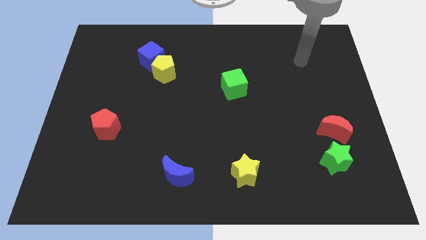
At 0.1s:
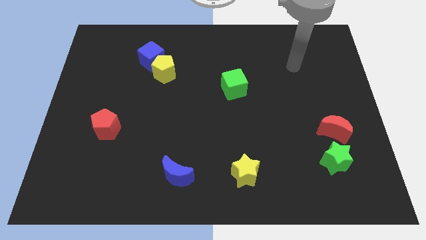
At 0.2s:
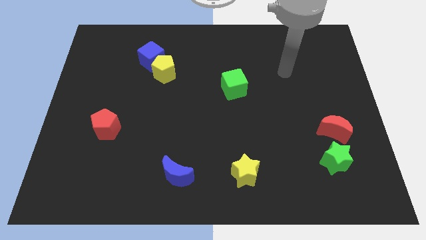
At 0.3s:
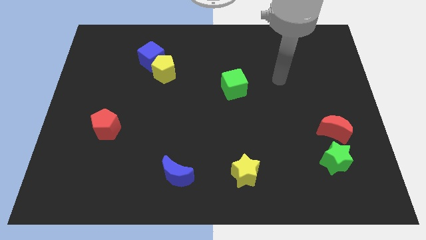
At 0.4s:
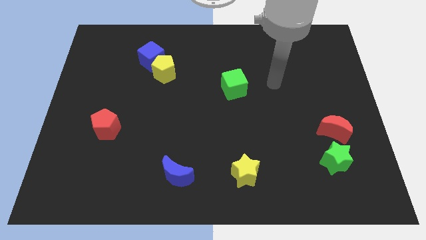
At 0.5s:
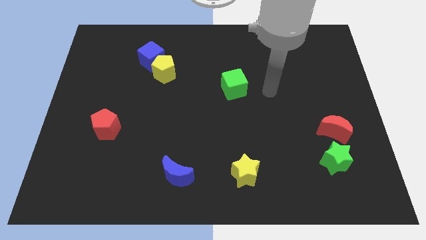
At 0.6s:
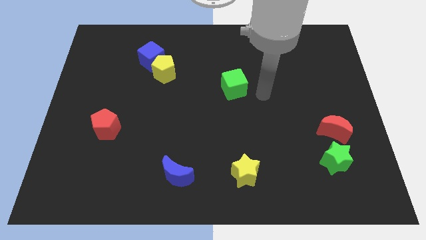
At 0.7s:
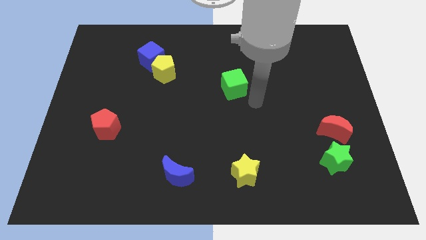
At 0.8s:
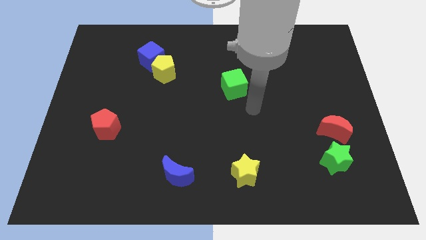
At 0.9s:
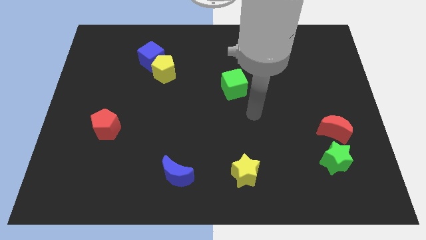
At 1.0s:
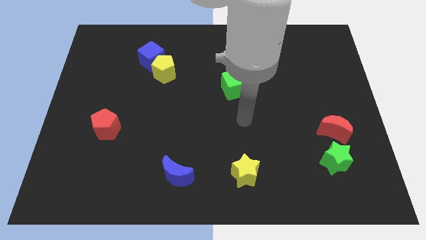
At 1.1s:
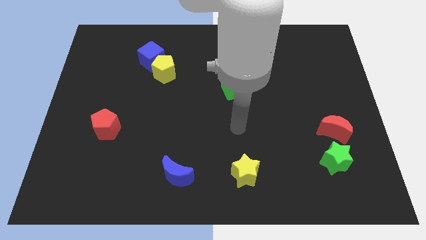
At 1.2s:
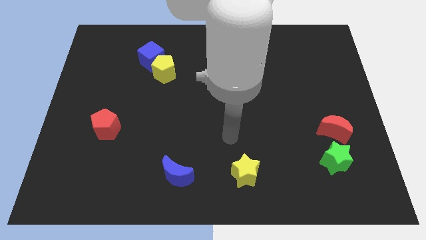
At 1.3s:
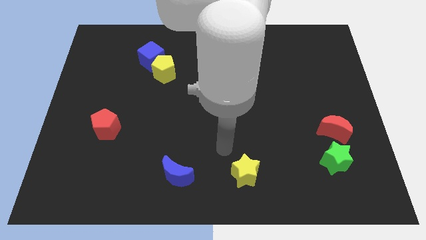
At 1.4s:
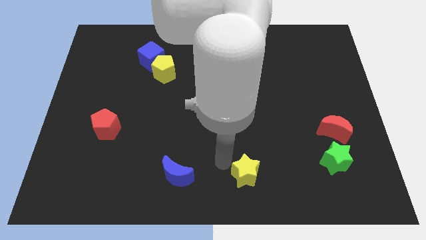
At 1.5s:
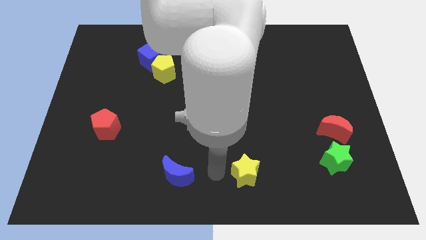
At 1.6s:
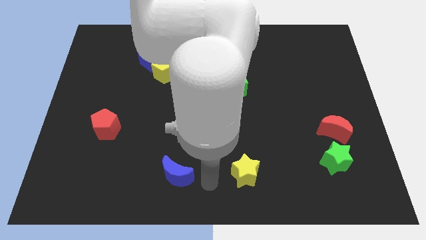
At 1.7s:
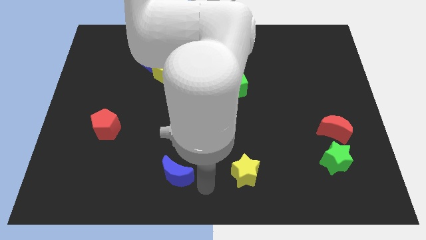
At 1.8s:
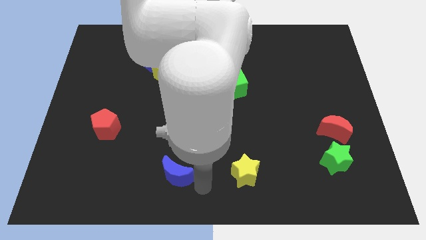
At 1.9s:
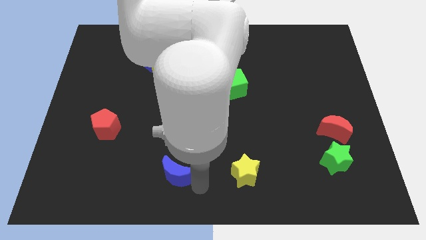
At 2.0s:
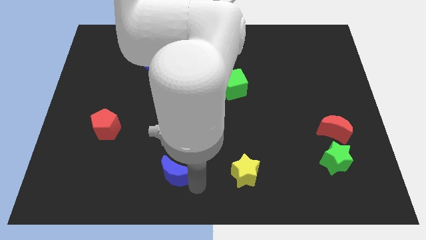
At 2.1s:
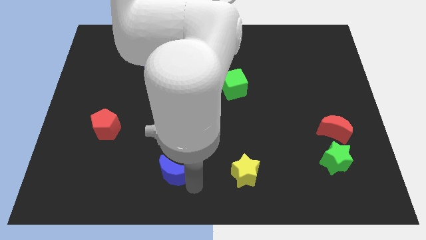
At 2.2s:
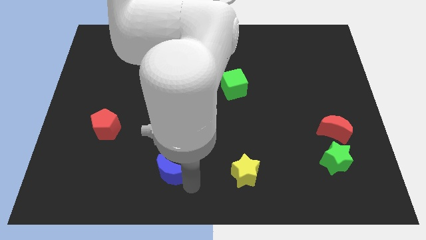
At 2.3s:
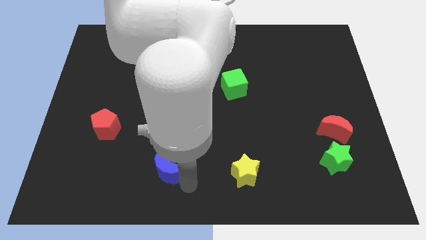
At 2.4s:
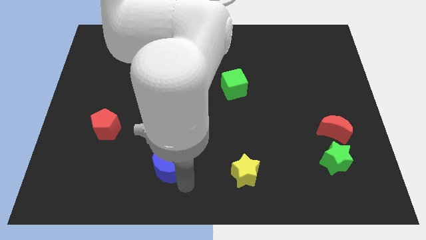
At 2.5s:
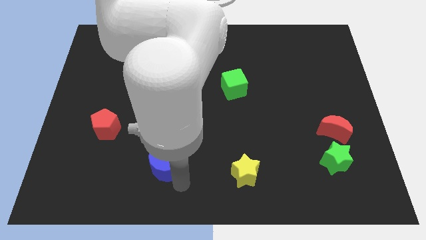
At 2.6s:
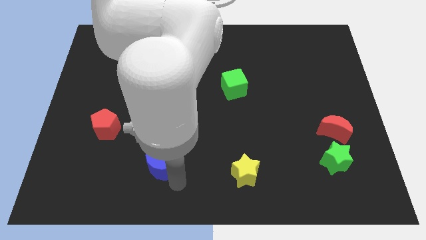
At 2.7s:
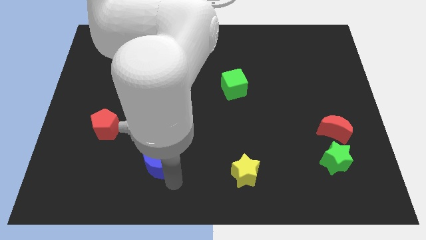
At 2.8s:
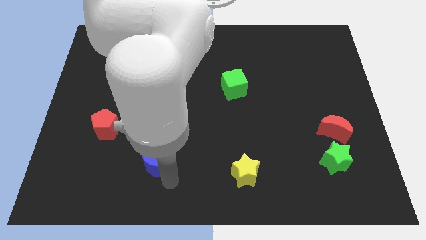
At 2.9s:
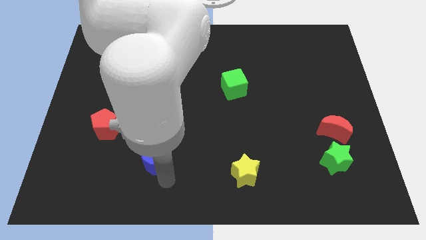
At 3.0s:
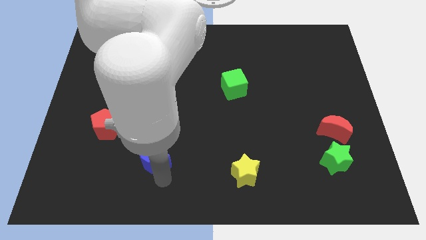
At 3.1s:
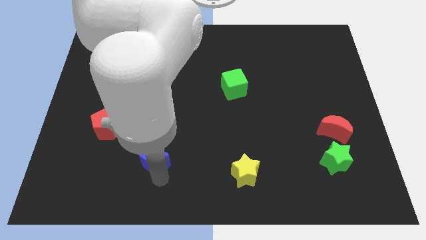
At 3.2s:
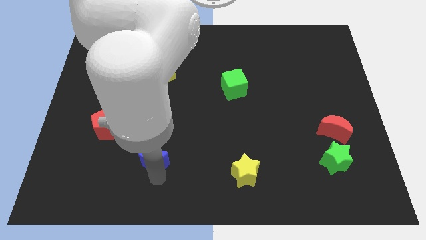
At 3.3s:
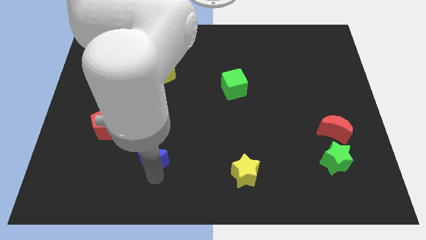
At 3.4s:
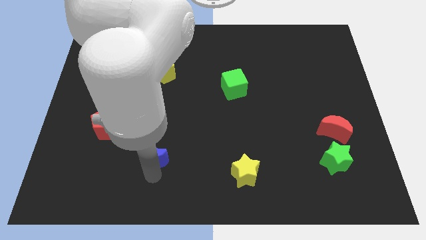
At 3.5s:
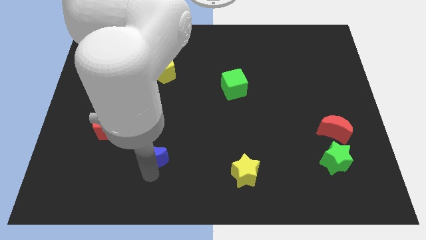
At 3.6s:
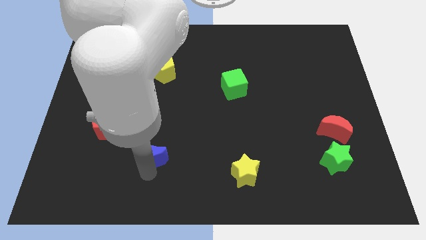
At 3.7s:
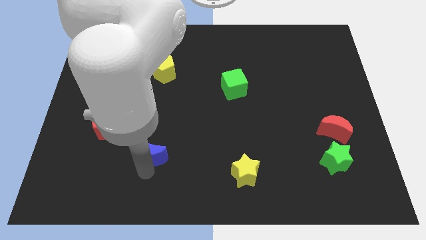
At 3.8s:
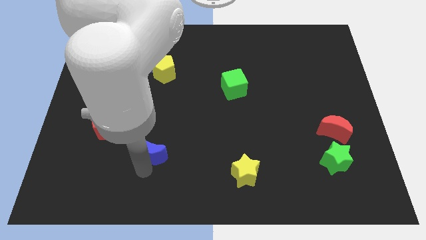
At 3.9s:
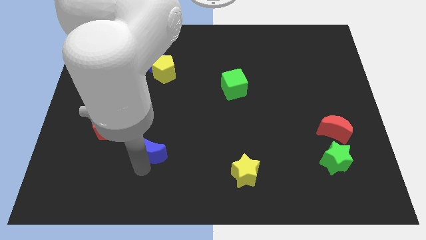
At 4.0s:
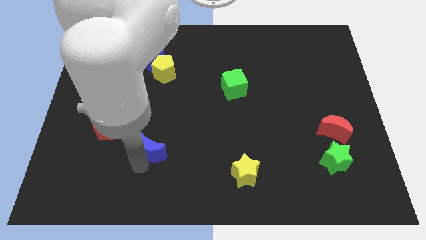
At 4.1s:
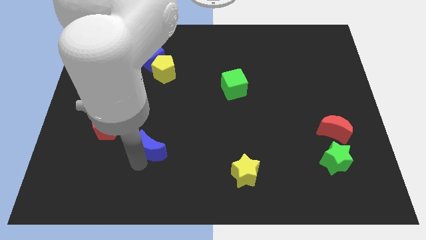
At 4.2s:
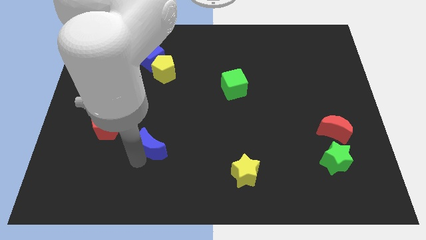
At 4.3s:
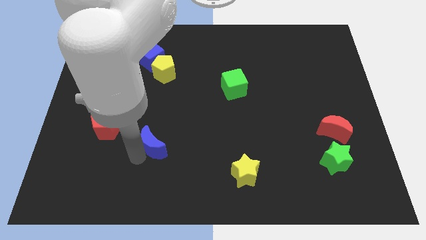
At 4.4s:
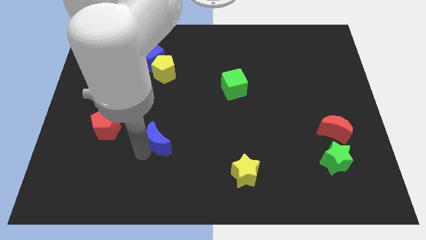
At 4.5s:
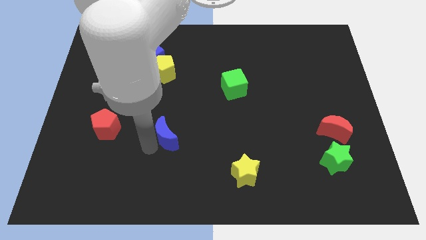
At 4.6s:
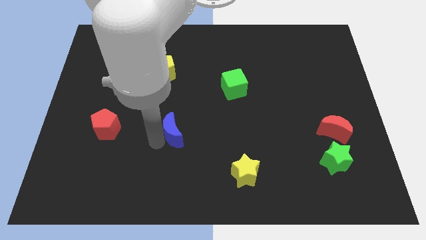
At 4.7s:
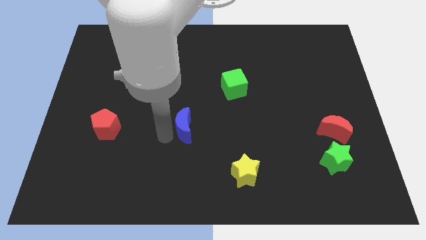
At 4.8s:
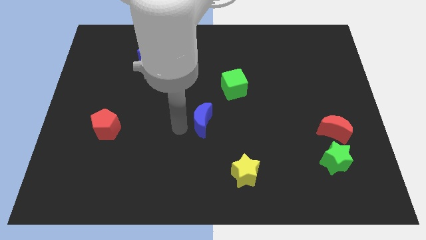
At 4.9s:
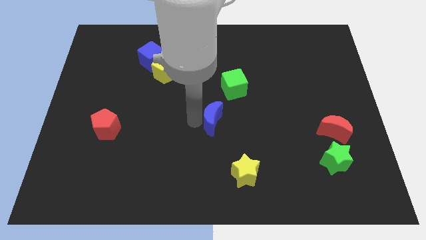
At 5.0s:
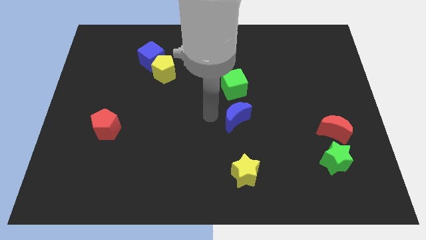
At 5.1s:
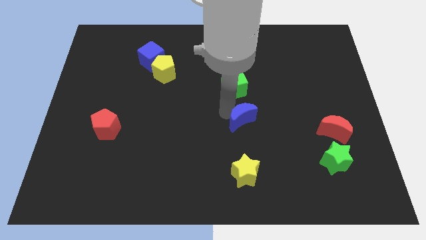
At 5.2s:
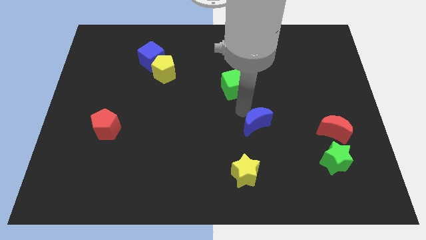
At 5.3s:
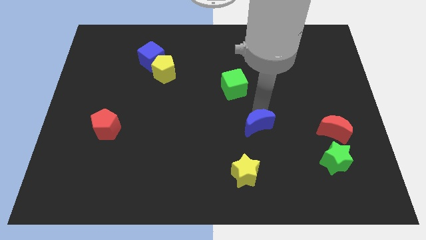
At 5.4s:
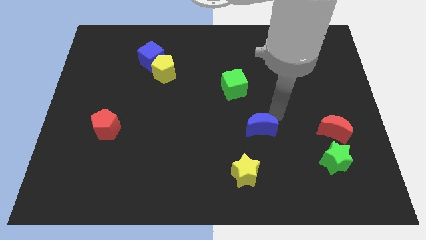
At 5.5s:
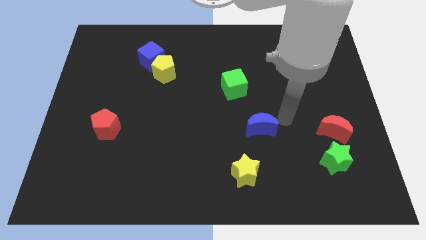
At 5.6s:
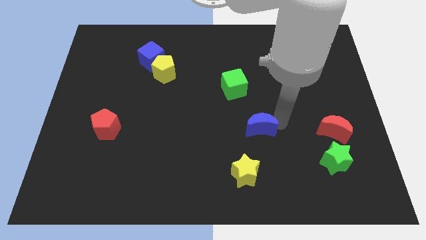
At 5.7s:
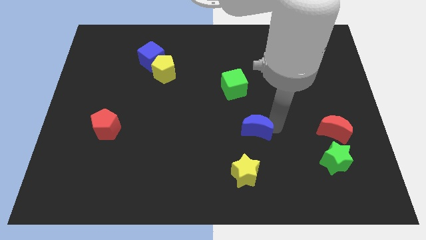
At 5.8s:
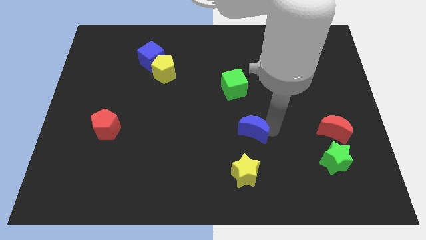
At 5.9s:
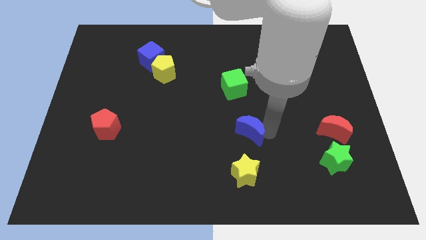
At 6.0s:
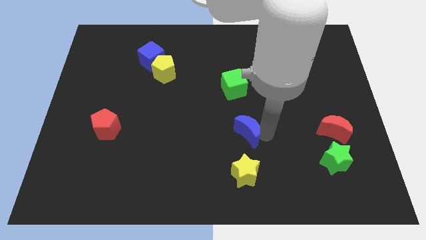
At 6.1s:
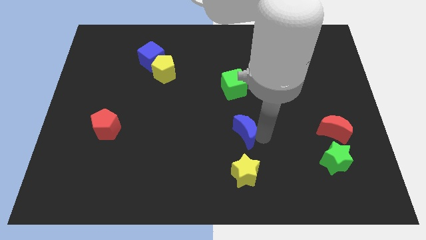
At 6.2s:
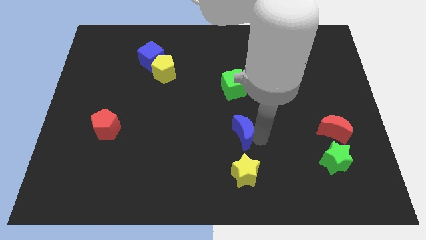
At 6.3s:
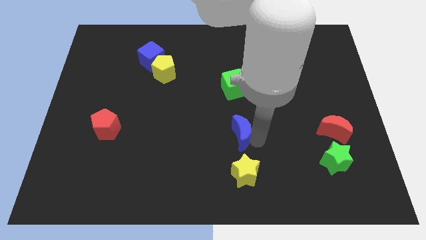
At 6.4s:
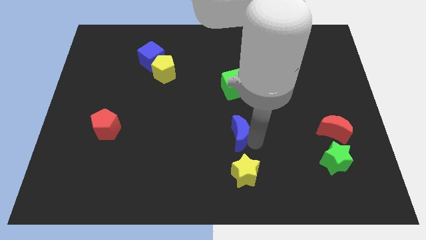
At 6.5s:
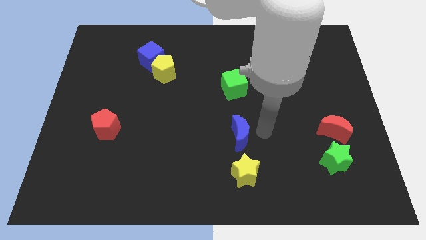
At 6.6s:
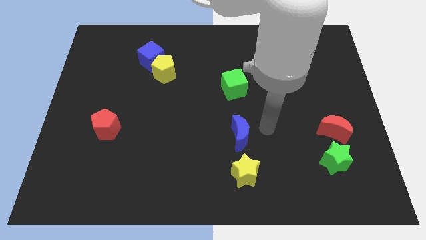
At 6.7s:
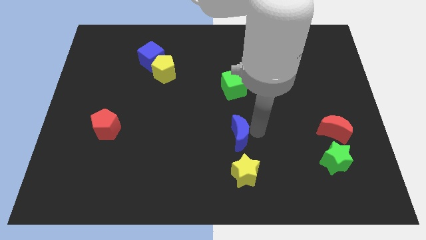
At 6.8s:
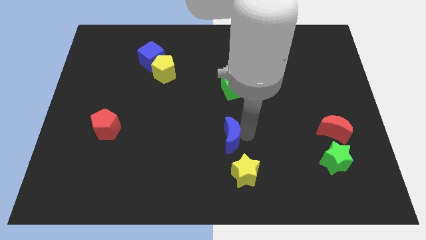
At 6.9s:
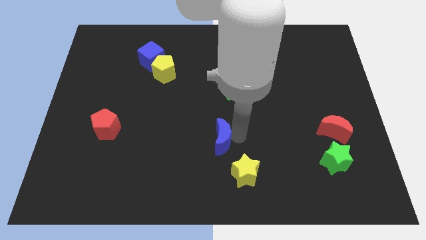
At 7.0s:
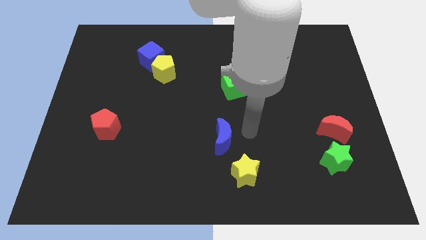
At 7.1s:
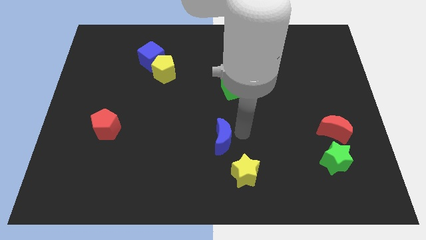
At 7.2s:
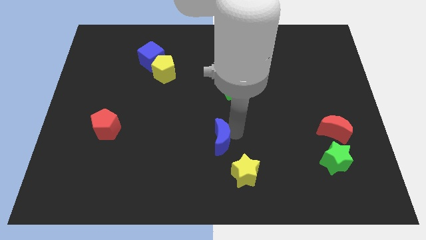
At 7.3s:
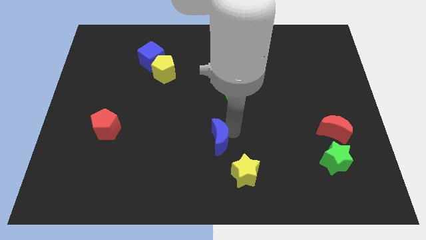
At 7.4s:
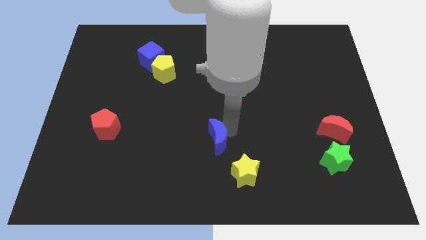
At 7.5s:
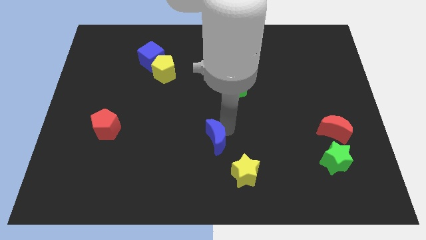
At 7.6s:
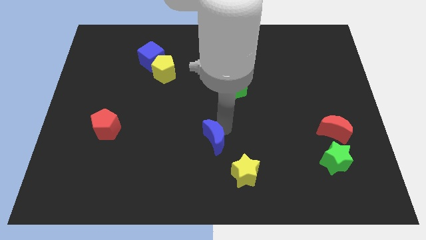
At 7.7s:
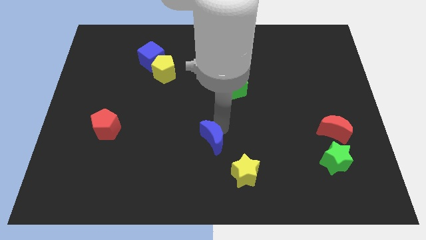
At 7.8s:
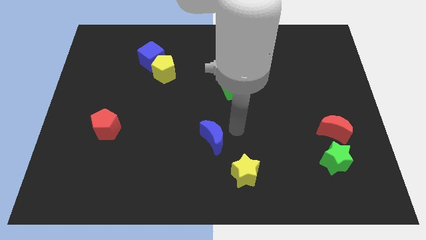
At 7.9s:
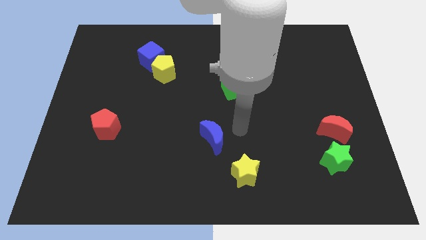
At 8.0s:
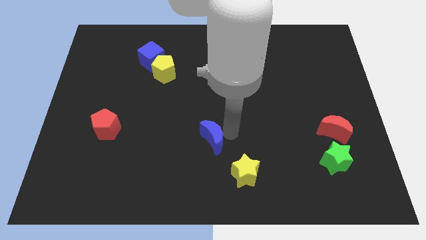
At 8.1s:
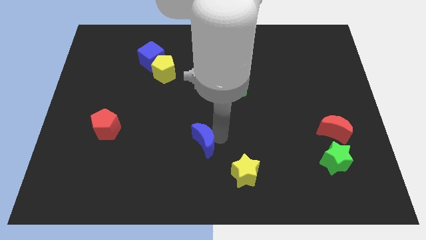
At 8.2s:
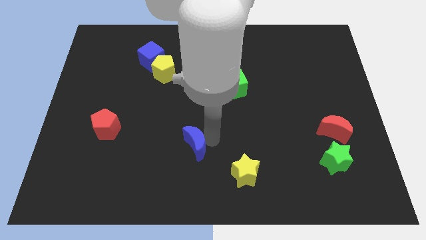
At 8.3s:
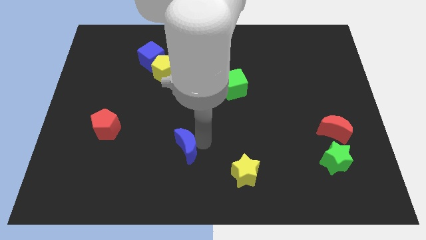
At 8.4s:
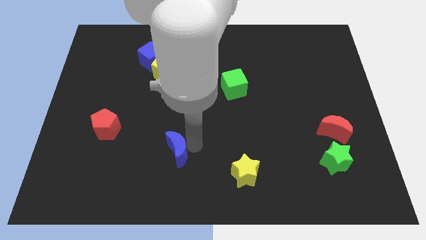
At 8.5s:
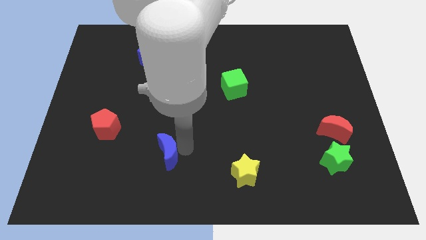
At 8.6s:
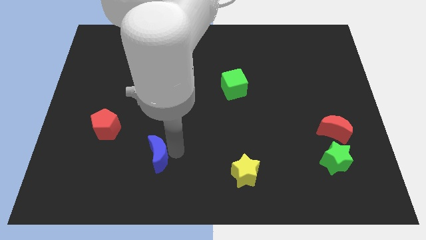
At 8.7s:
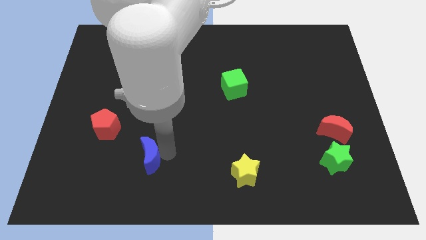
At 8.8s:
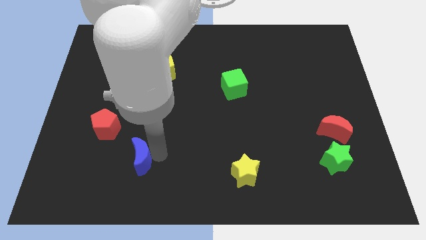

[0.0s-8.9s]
push the blue moon slightly left
